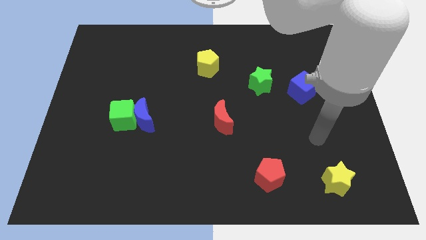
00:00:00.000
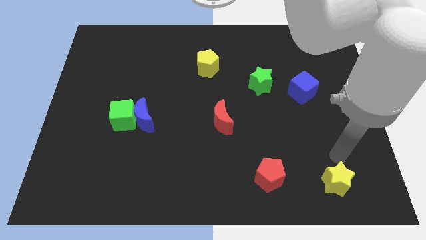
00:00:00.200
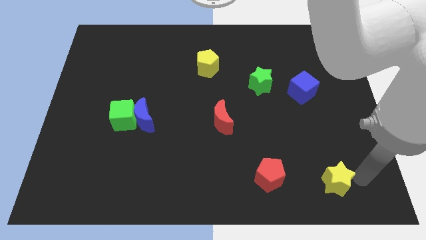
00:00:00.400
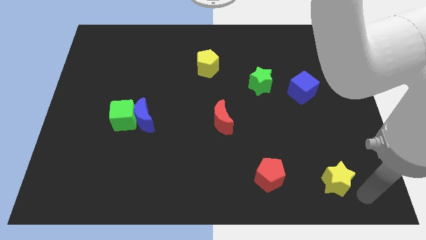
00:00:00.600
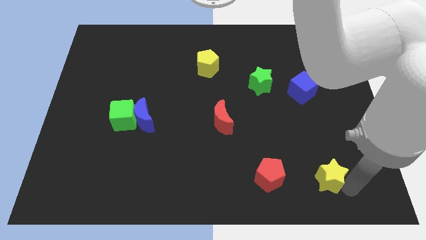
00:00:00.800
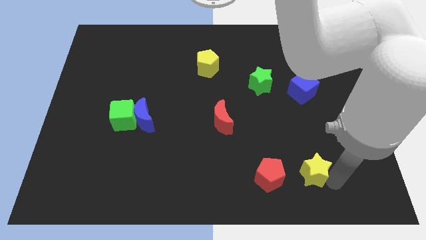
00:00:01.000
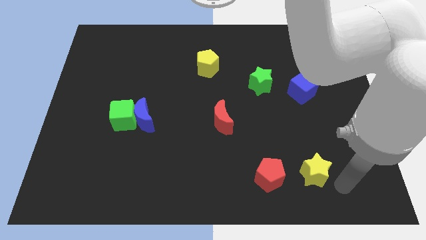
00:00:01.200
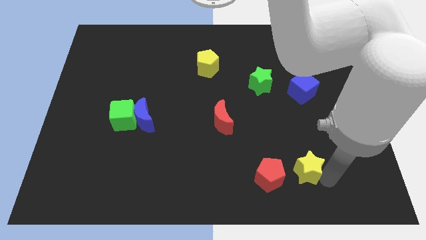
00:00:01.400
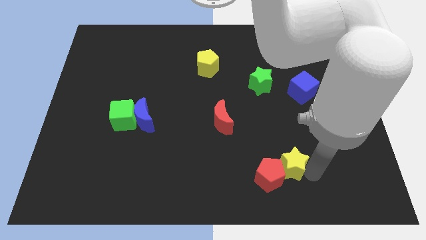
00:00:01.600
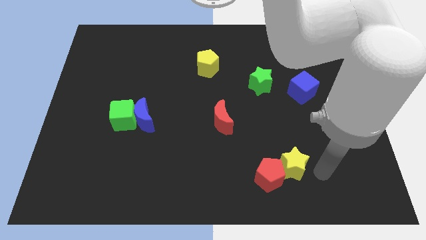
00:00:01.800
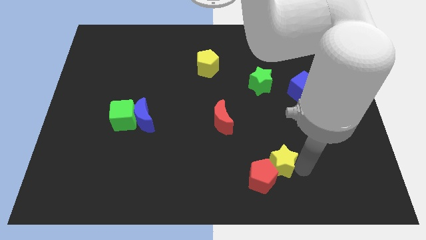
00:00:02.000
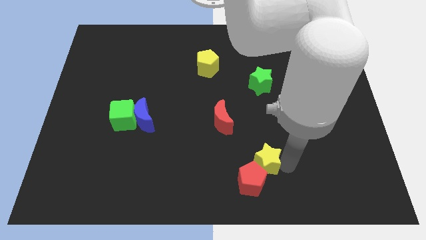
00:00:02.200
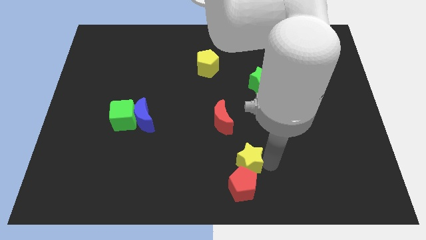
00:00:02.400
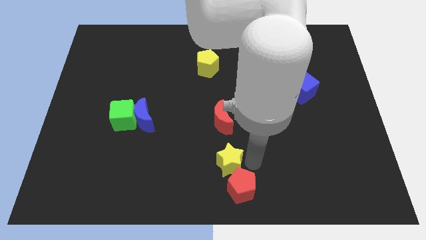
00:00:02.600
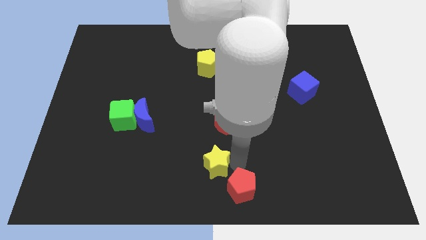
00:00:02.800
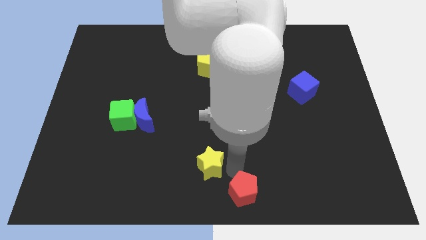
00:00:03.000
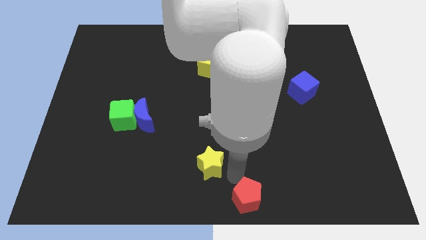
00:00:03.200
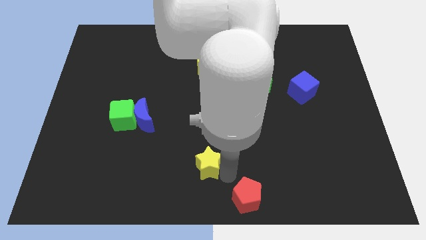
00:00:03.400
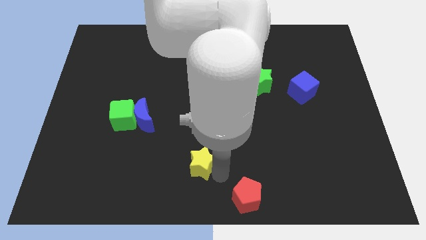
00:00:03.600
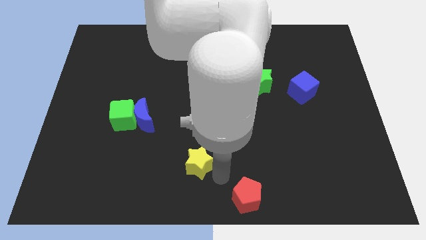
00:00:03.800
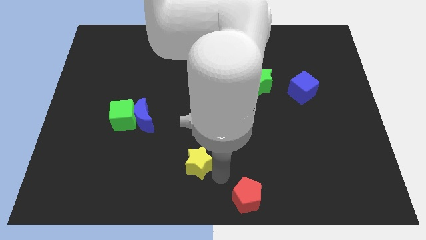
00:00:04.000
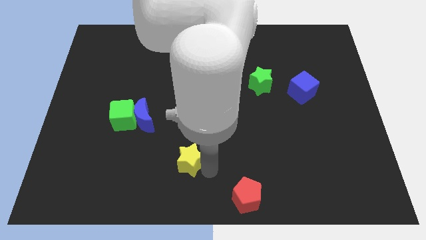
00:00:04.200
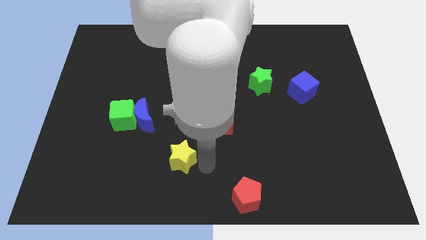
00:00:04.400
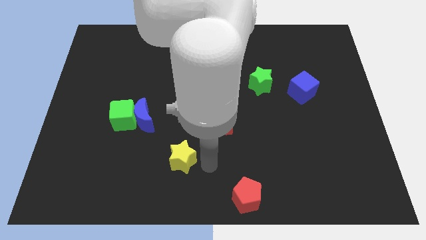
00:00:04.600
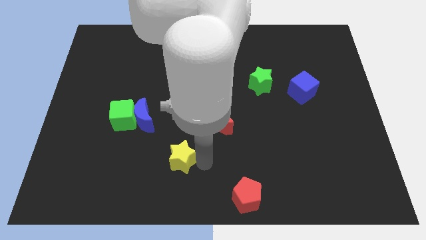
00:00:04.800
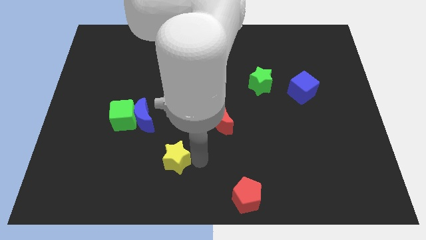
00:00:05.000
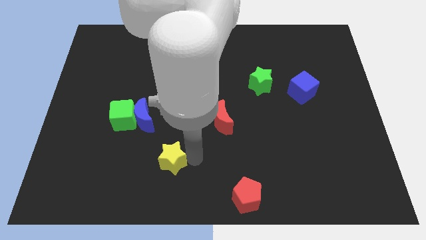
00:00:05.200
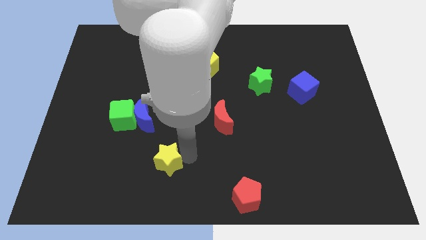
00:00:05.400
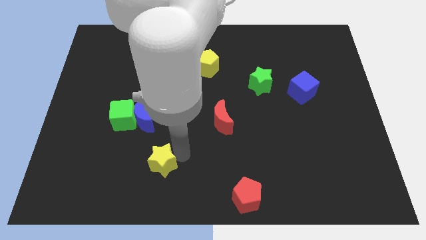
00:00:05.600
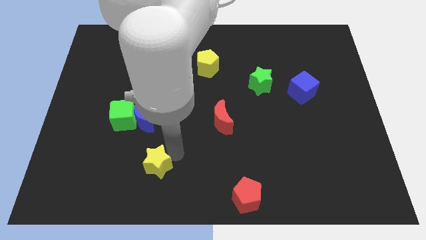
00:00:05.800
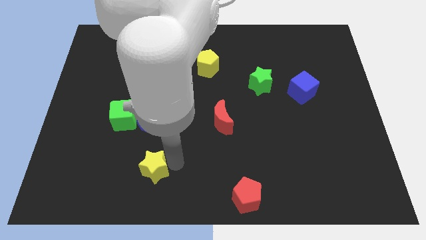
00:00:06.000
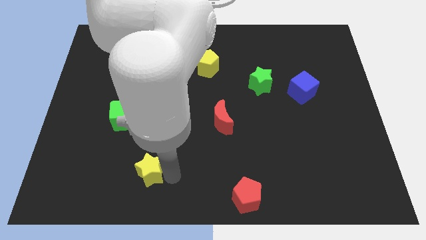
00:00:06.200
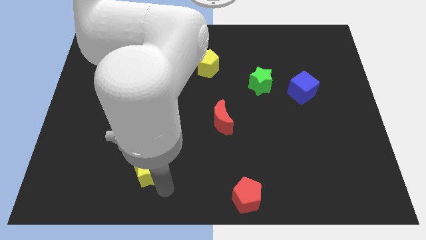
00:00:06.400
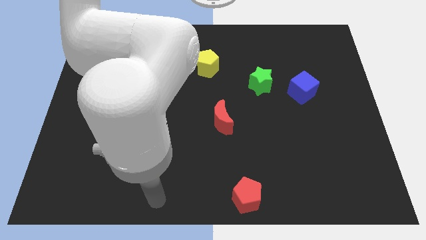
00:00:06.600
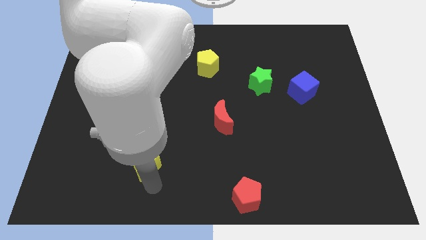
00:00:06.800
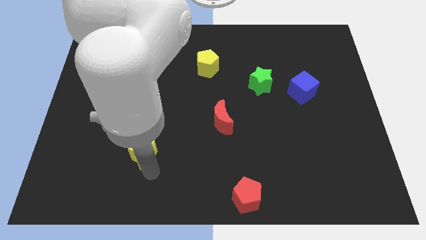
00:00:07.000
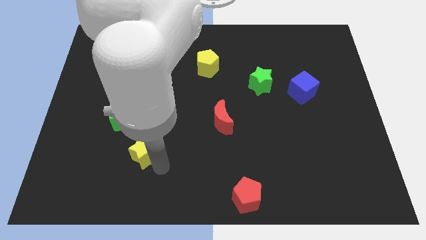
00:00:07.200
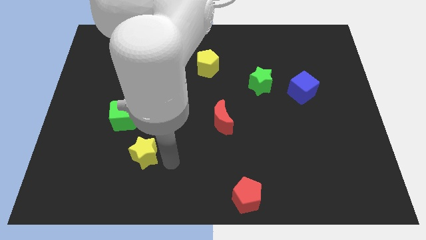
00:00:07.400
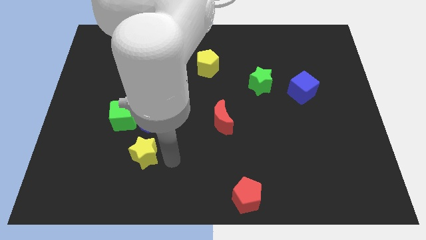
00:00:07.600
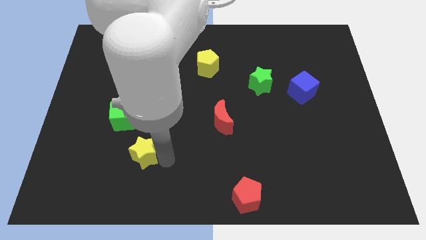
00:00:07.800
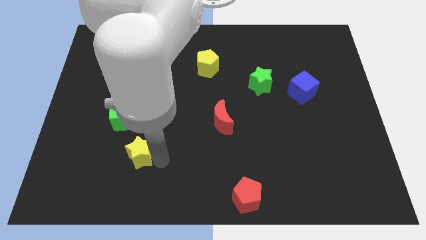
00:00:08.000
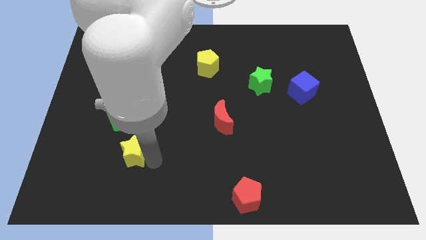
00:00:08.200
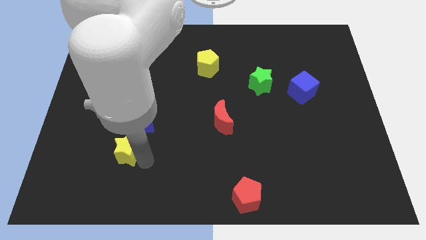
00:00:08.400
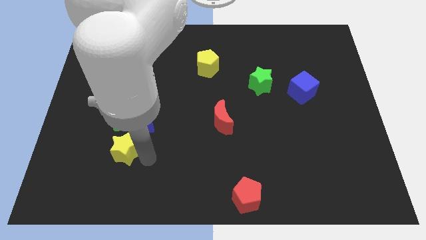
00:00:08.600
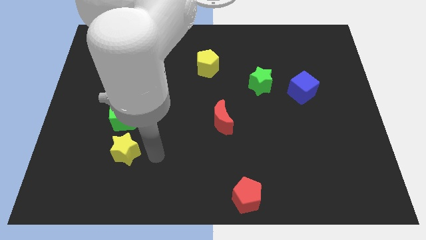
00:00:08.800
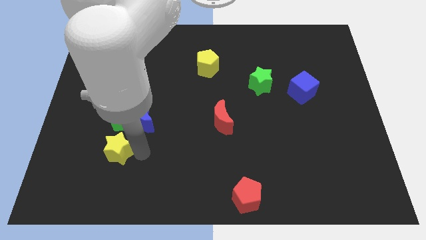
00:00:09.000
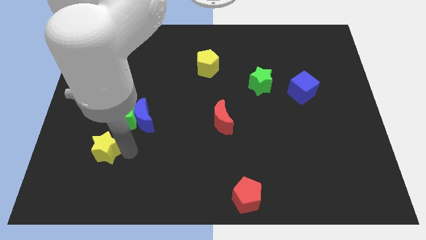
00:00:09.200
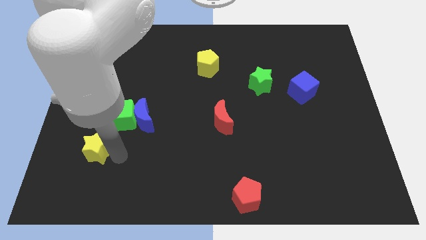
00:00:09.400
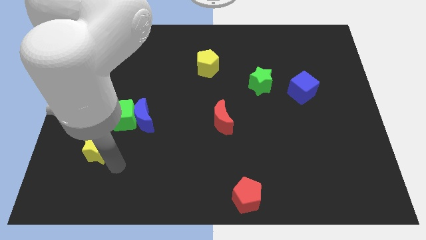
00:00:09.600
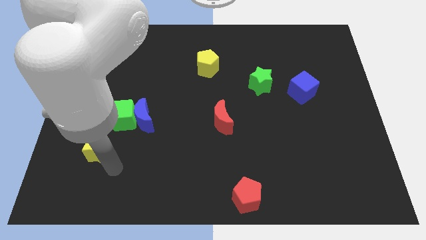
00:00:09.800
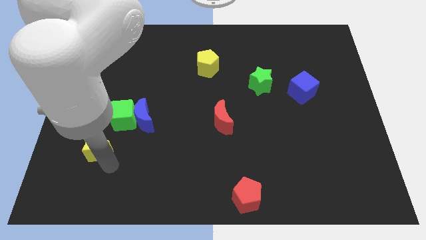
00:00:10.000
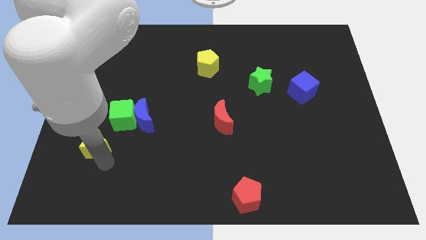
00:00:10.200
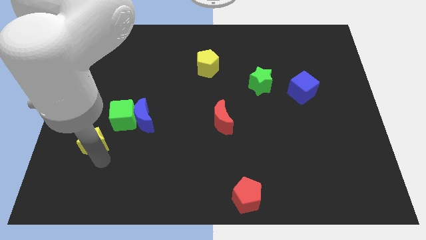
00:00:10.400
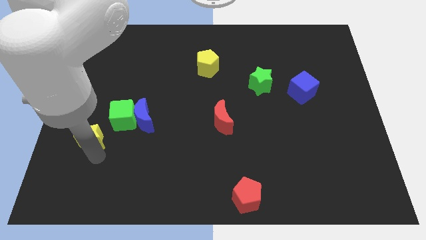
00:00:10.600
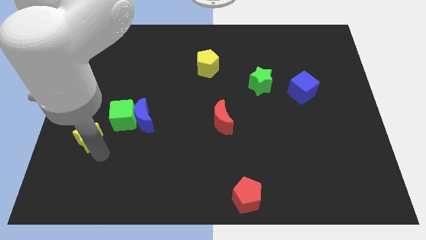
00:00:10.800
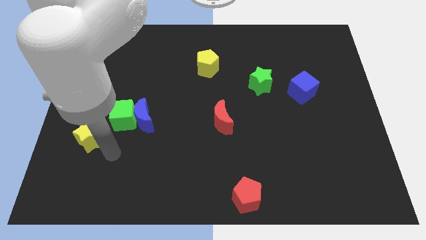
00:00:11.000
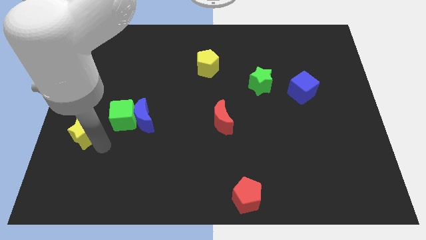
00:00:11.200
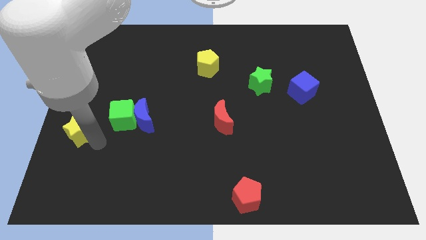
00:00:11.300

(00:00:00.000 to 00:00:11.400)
put the yellow star to the left side of the board
